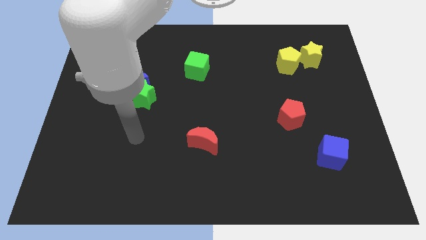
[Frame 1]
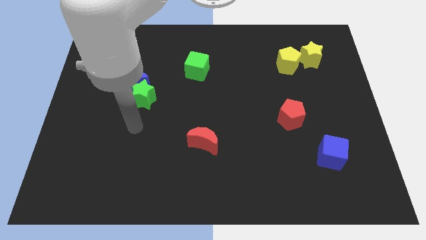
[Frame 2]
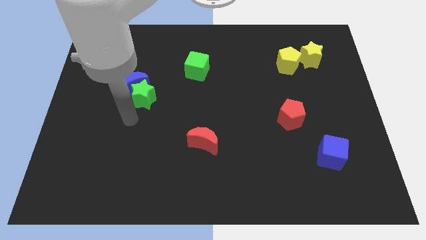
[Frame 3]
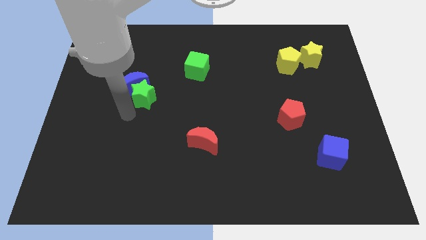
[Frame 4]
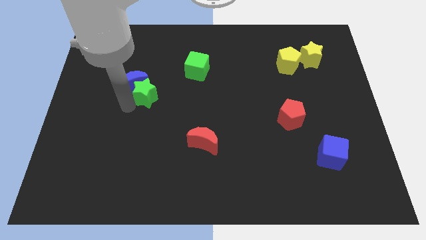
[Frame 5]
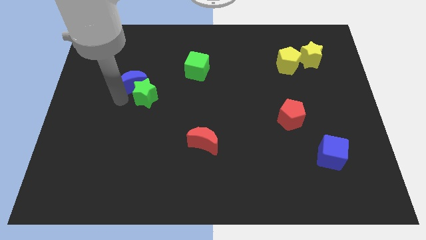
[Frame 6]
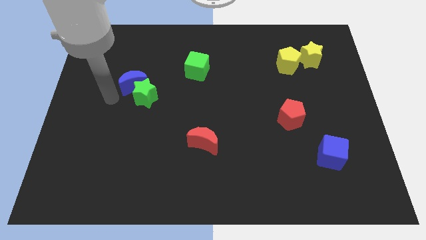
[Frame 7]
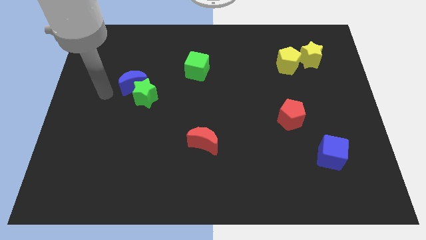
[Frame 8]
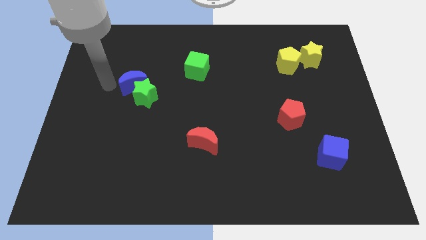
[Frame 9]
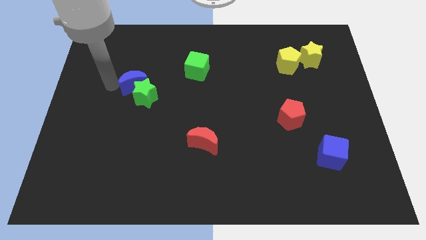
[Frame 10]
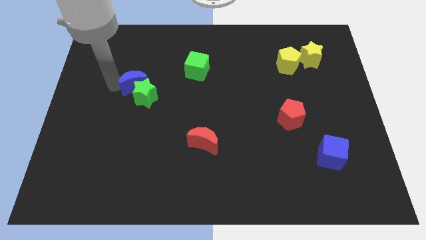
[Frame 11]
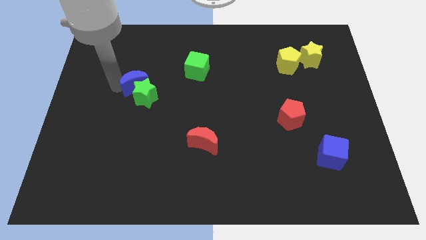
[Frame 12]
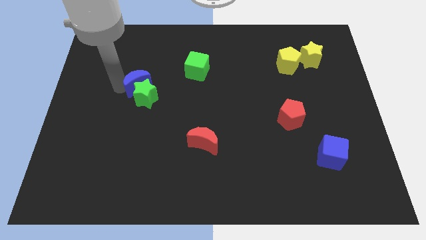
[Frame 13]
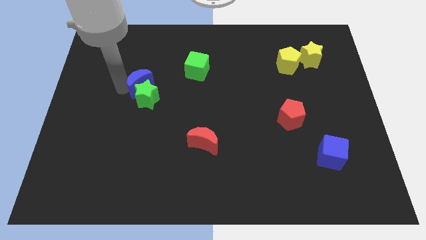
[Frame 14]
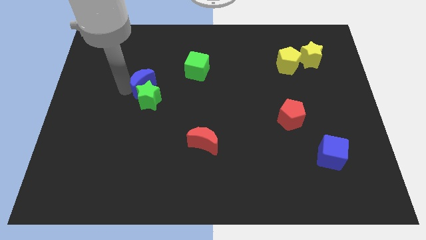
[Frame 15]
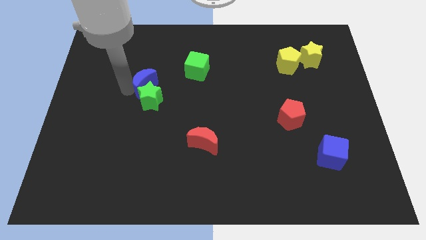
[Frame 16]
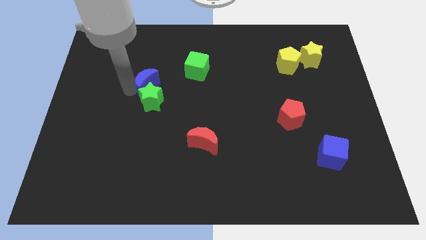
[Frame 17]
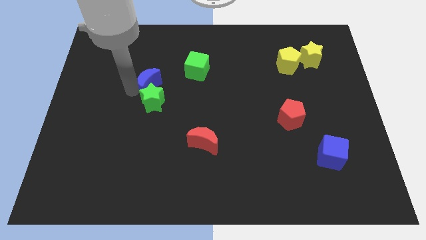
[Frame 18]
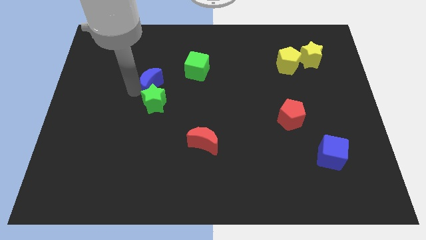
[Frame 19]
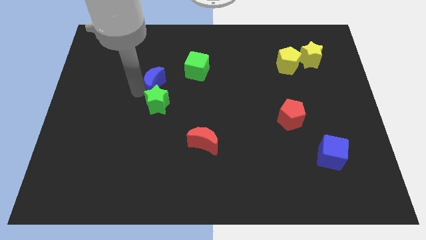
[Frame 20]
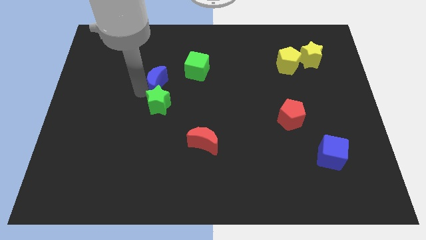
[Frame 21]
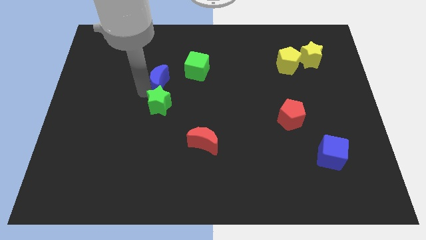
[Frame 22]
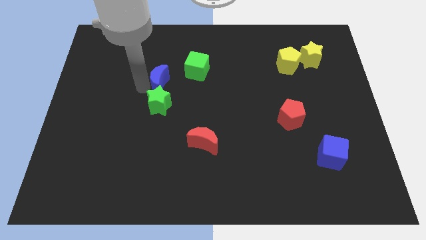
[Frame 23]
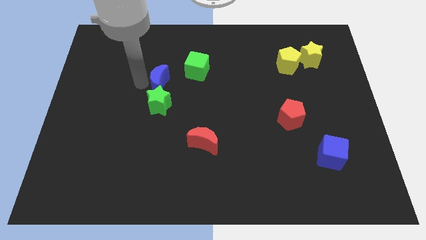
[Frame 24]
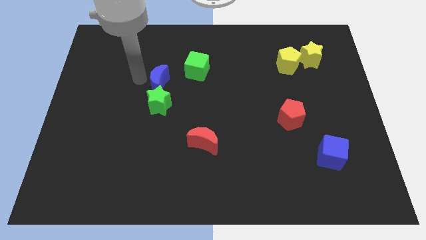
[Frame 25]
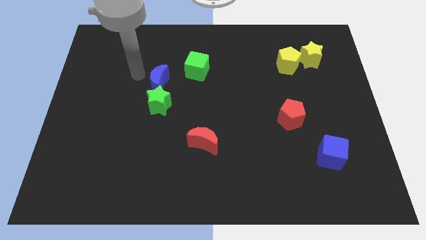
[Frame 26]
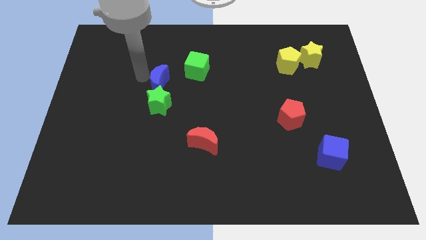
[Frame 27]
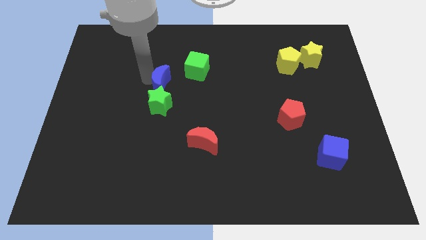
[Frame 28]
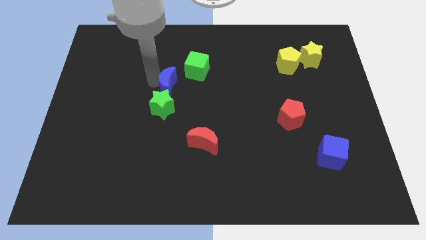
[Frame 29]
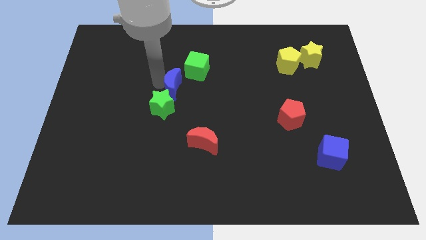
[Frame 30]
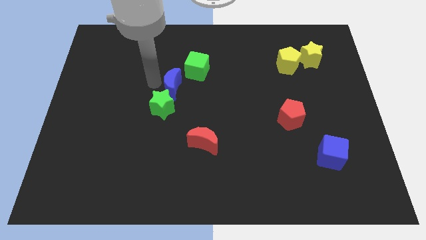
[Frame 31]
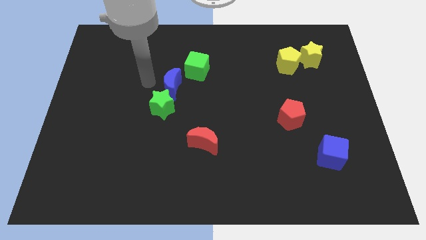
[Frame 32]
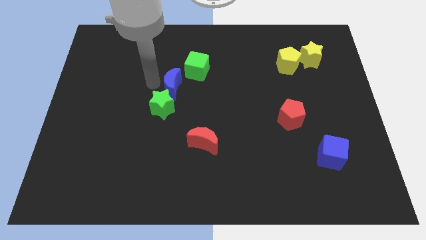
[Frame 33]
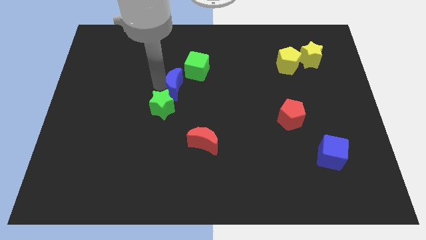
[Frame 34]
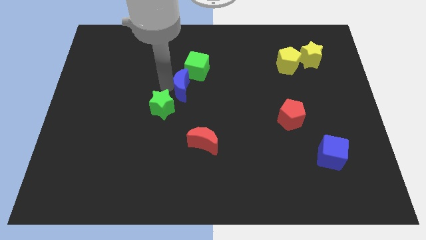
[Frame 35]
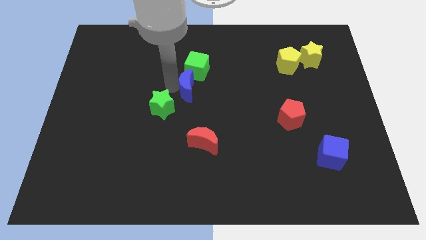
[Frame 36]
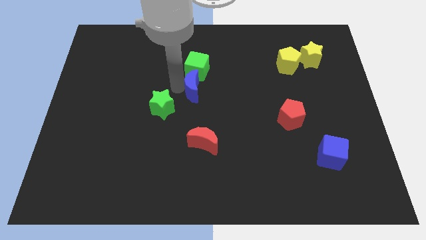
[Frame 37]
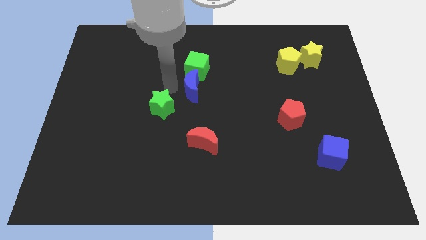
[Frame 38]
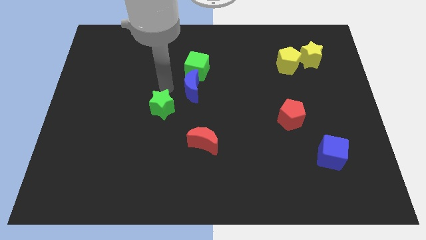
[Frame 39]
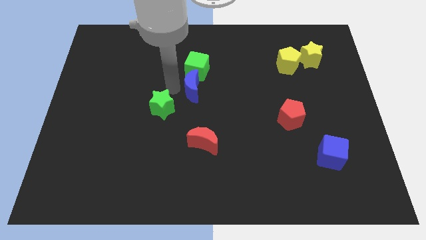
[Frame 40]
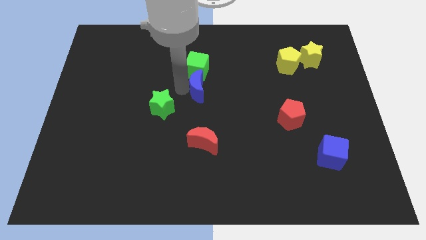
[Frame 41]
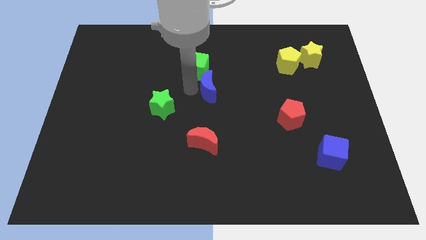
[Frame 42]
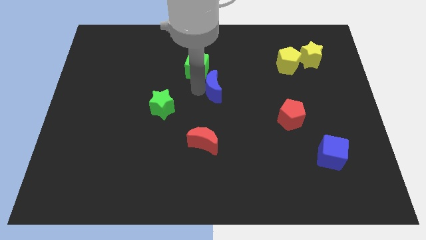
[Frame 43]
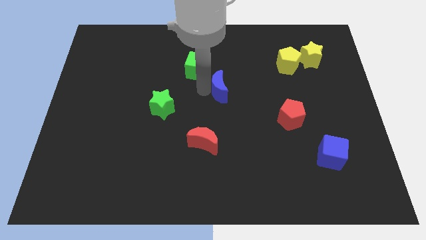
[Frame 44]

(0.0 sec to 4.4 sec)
push the blue moon to the right

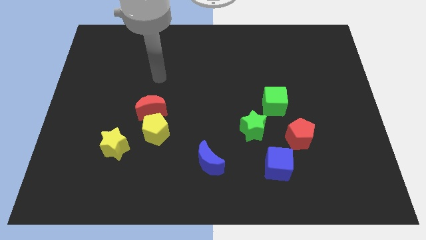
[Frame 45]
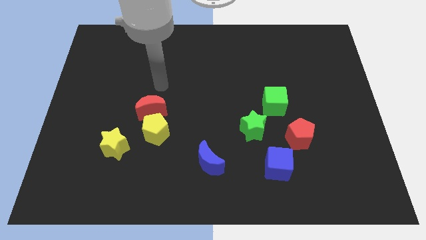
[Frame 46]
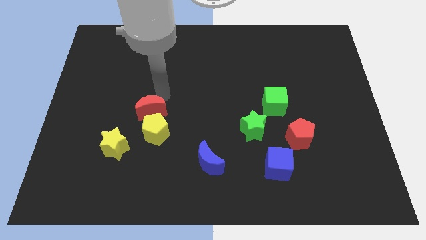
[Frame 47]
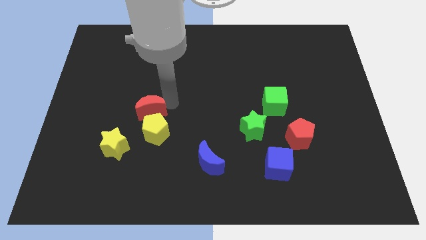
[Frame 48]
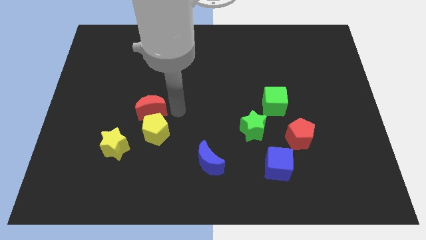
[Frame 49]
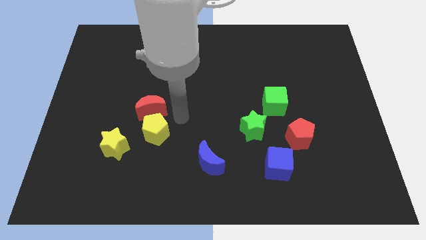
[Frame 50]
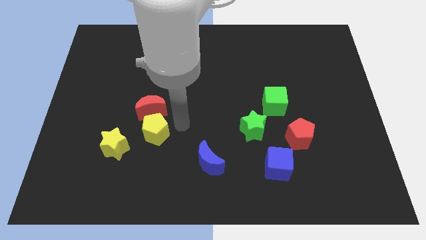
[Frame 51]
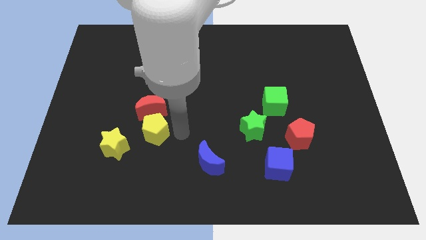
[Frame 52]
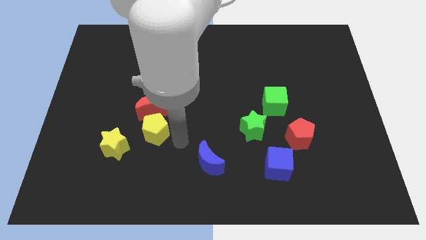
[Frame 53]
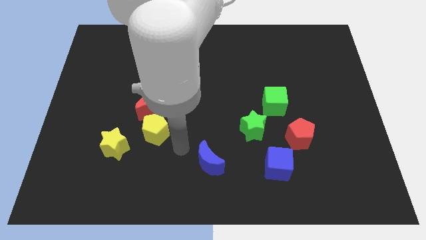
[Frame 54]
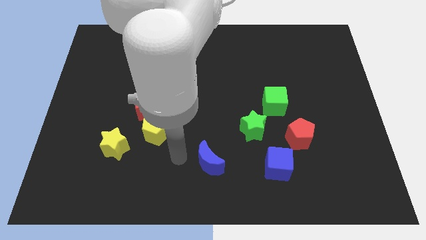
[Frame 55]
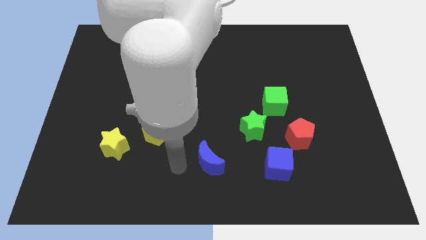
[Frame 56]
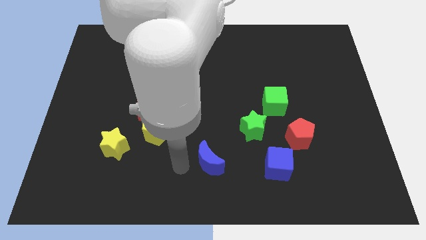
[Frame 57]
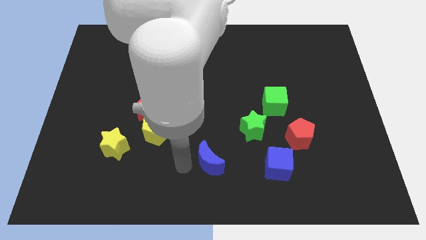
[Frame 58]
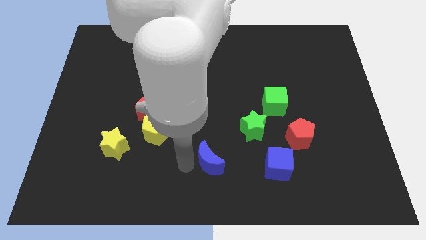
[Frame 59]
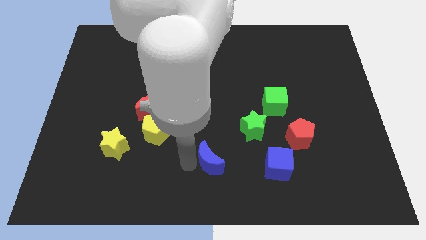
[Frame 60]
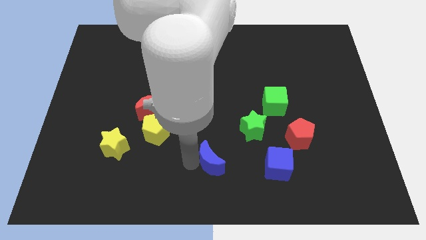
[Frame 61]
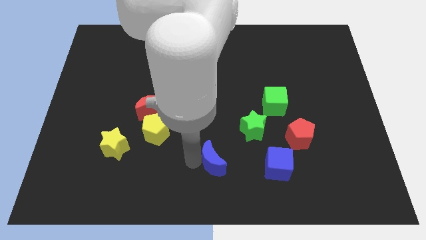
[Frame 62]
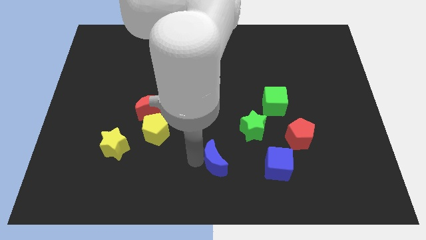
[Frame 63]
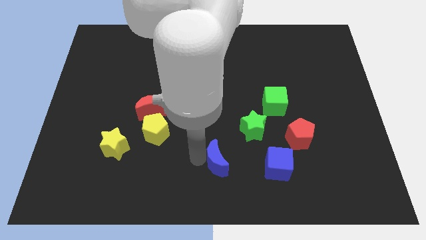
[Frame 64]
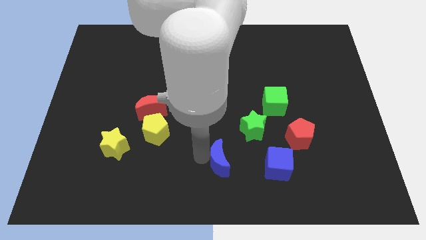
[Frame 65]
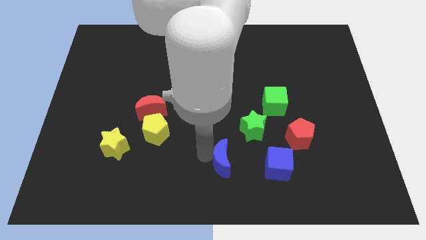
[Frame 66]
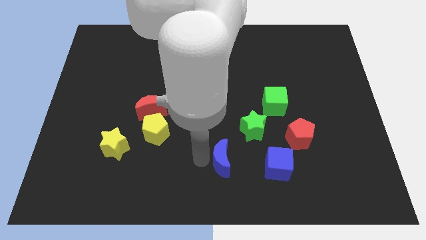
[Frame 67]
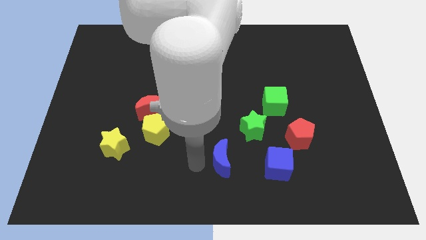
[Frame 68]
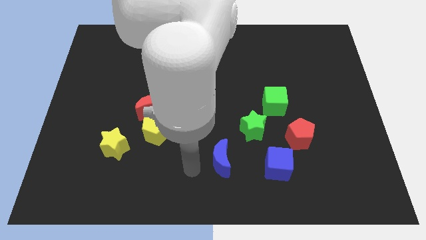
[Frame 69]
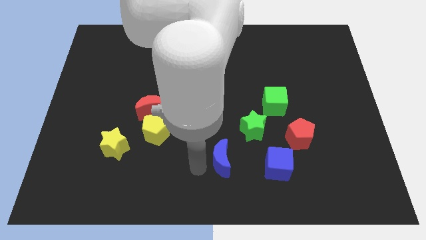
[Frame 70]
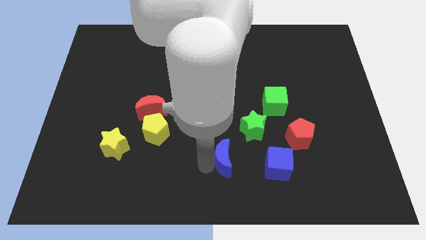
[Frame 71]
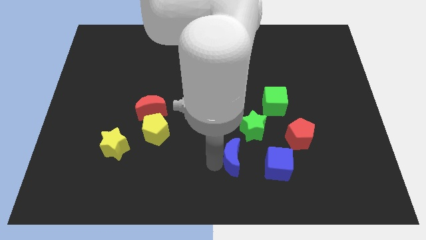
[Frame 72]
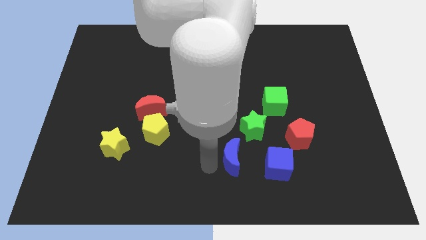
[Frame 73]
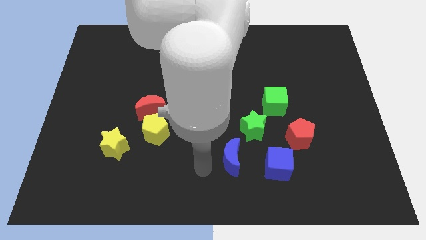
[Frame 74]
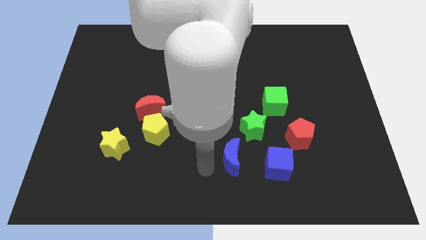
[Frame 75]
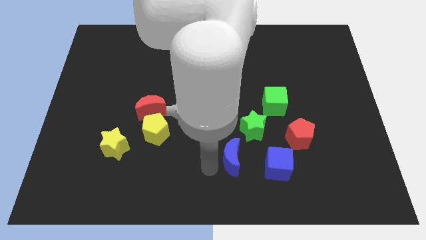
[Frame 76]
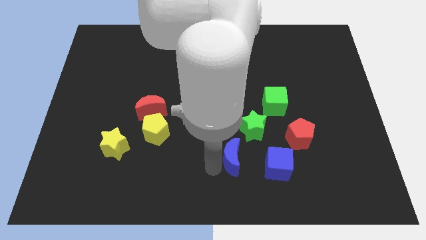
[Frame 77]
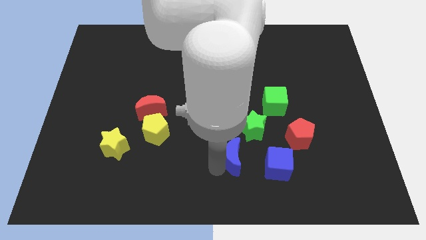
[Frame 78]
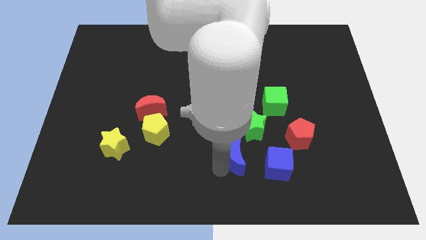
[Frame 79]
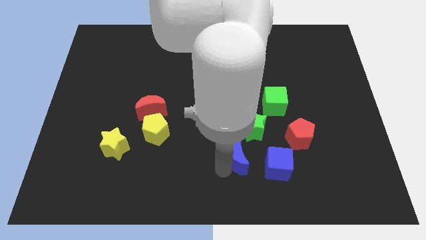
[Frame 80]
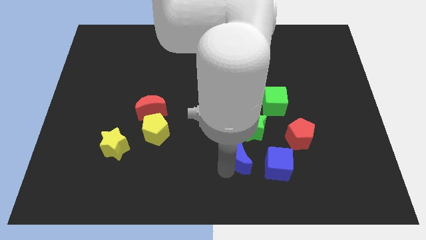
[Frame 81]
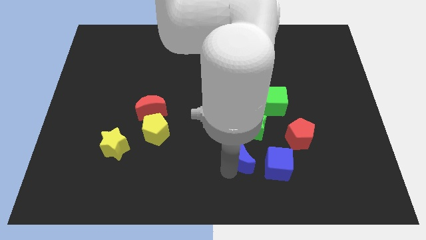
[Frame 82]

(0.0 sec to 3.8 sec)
slightly slide the blue moon right

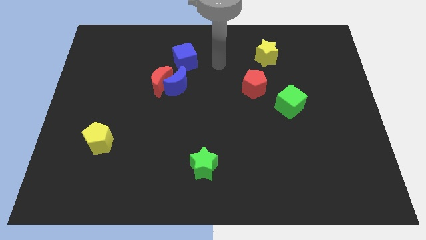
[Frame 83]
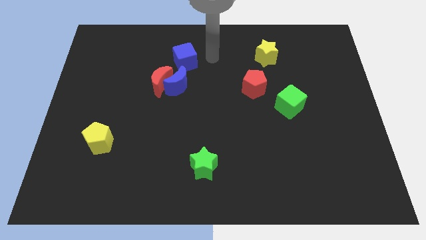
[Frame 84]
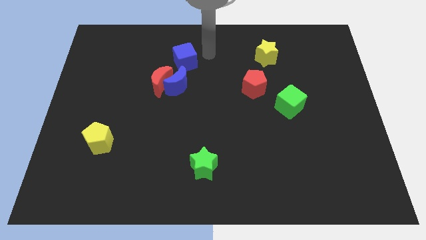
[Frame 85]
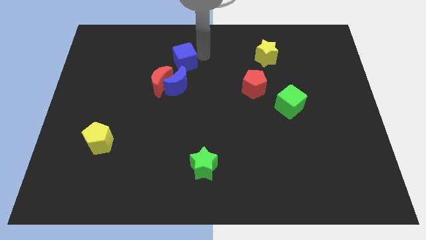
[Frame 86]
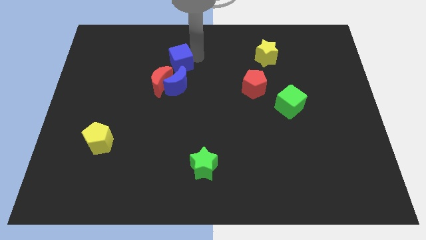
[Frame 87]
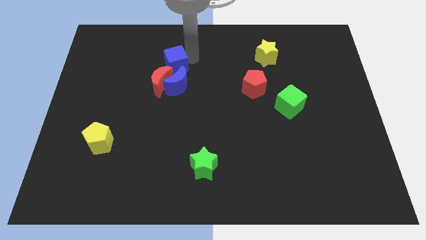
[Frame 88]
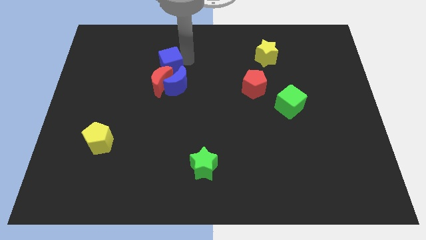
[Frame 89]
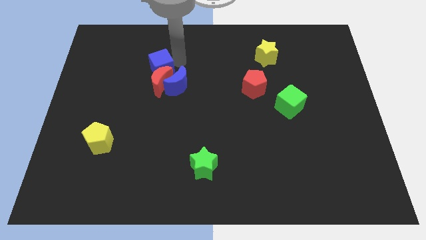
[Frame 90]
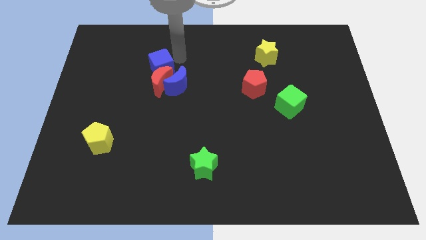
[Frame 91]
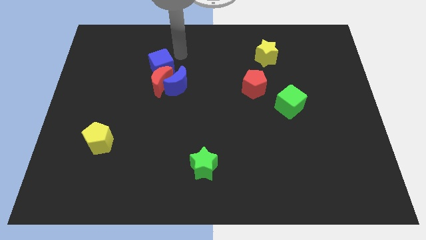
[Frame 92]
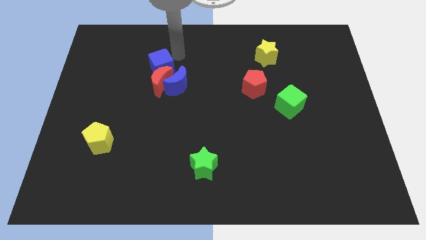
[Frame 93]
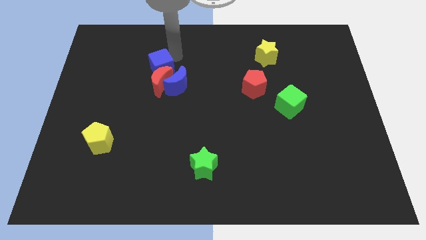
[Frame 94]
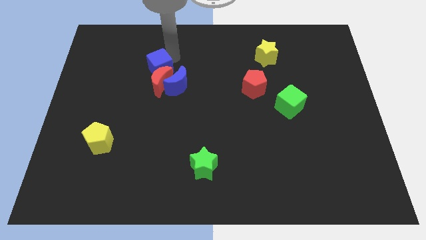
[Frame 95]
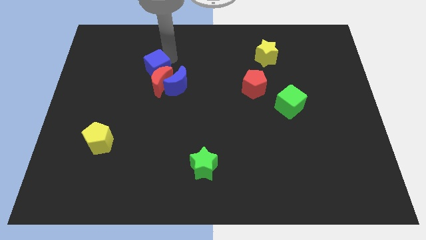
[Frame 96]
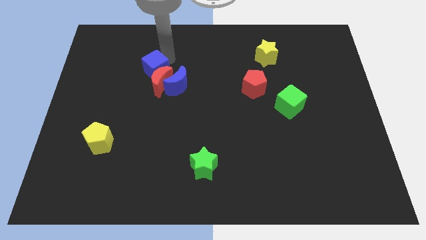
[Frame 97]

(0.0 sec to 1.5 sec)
slightly move the blue cube down and left diagonally
